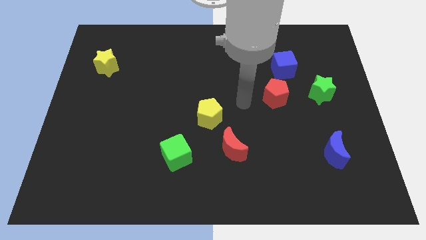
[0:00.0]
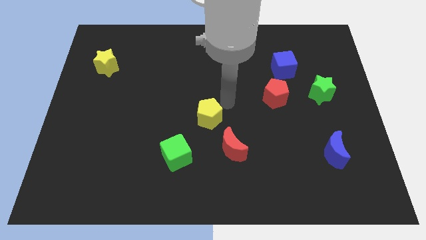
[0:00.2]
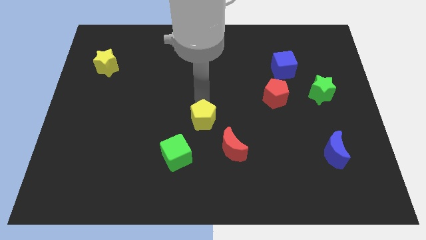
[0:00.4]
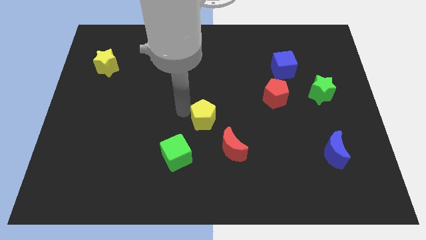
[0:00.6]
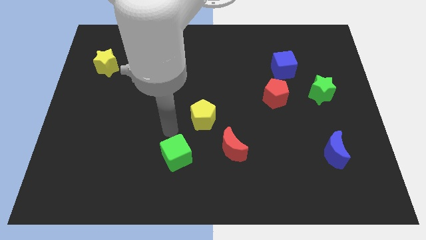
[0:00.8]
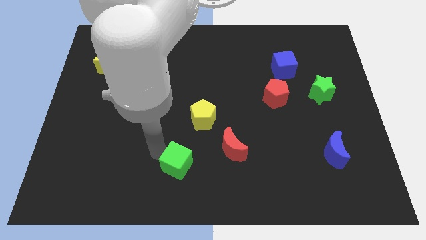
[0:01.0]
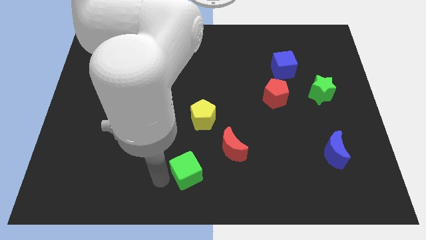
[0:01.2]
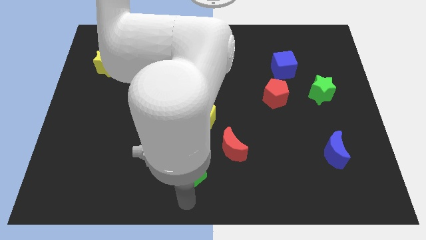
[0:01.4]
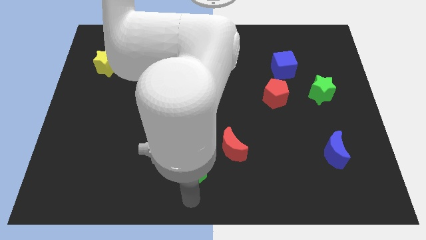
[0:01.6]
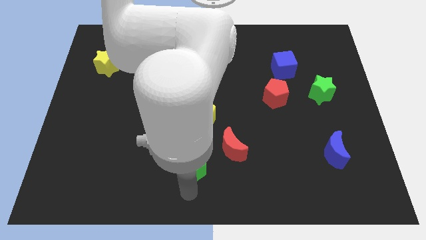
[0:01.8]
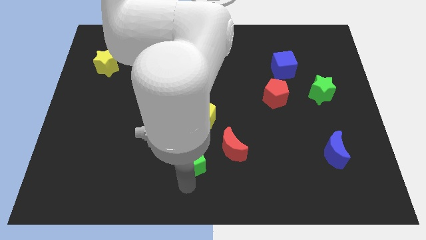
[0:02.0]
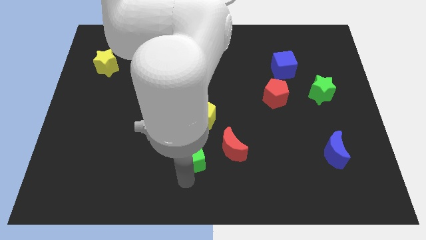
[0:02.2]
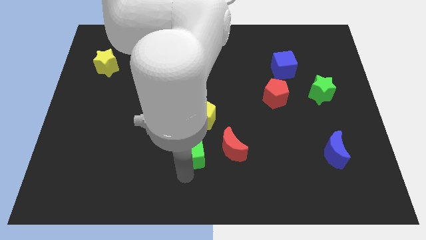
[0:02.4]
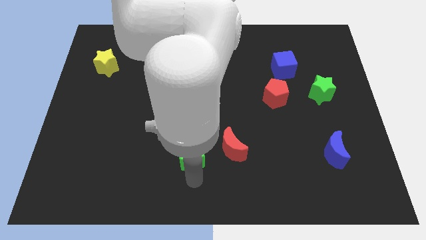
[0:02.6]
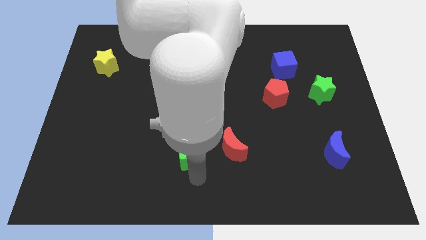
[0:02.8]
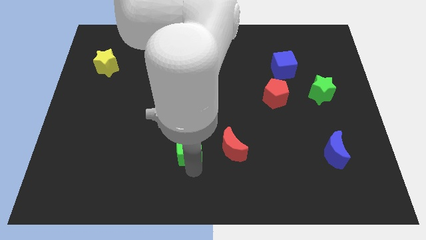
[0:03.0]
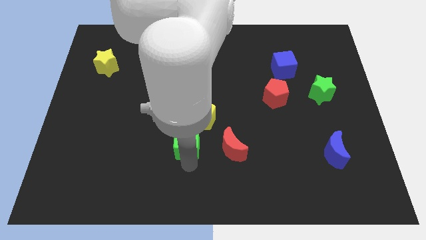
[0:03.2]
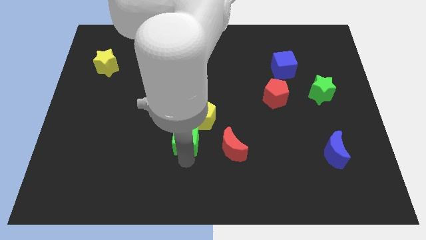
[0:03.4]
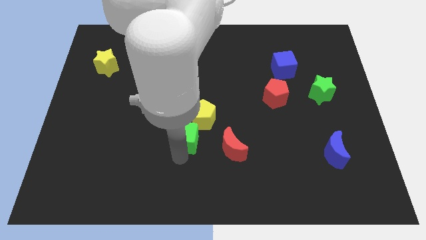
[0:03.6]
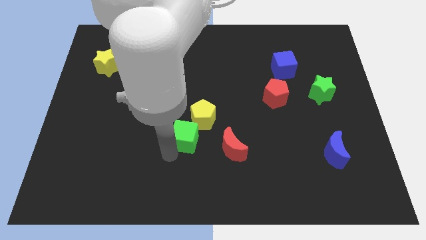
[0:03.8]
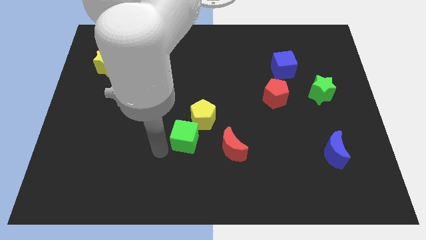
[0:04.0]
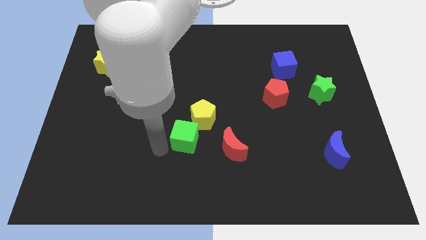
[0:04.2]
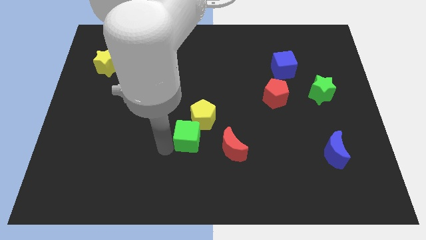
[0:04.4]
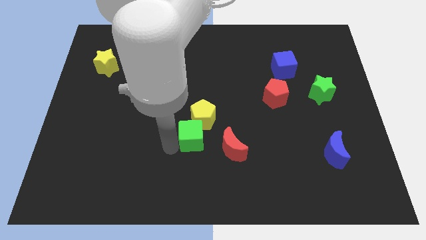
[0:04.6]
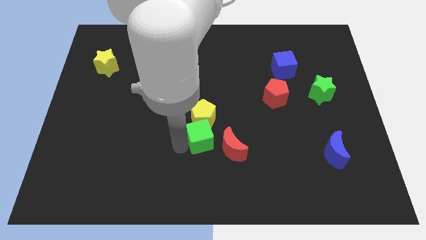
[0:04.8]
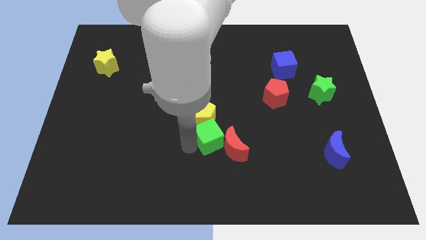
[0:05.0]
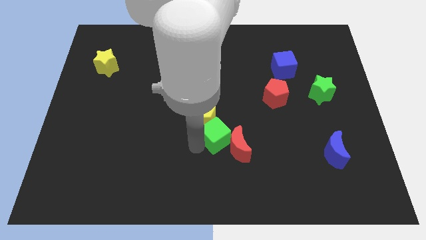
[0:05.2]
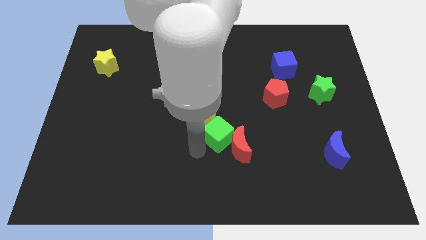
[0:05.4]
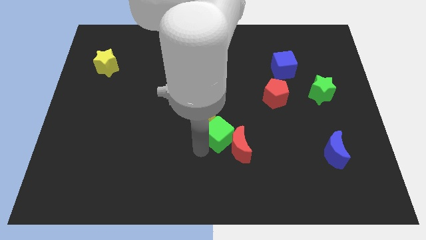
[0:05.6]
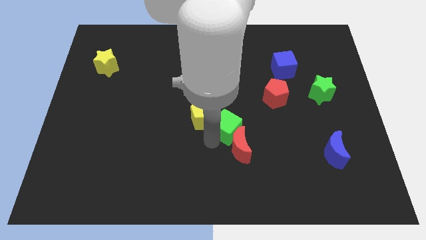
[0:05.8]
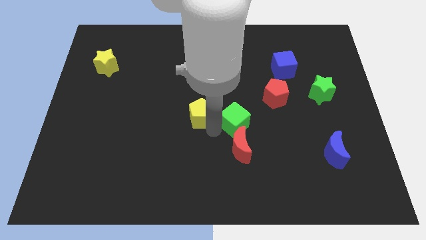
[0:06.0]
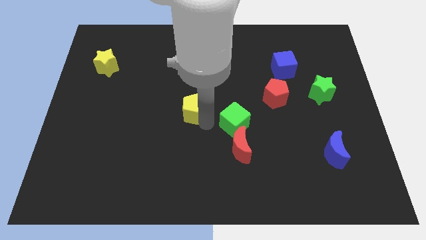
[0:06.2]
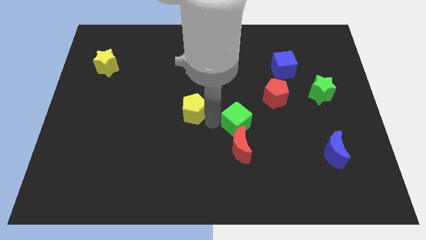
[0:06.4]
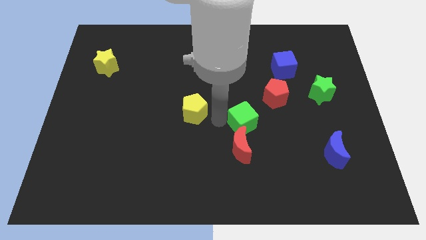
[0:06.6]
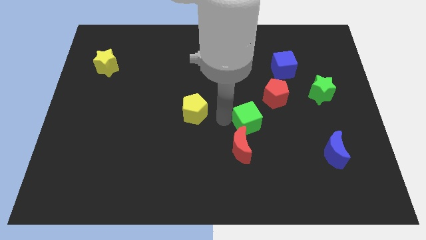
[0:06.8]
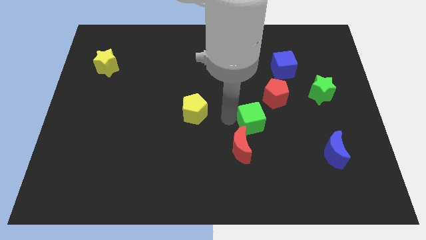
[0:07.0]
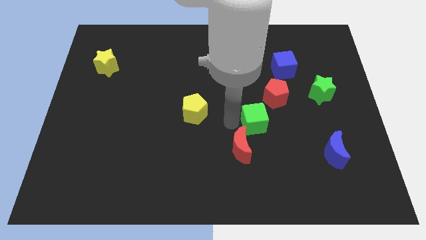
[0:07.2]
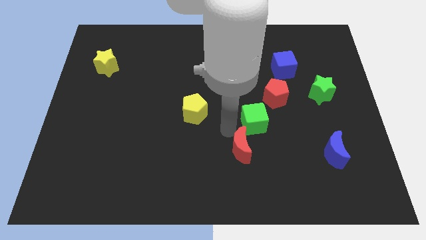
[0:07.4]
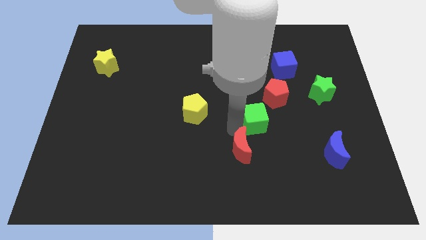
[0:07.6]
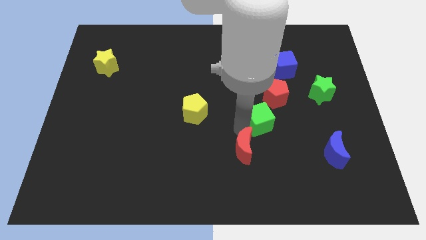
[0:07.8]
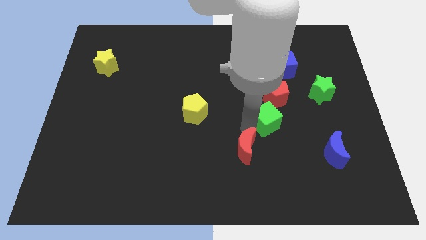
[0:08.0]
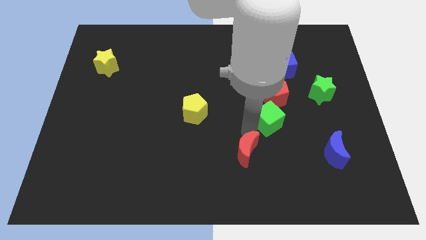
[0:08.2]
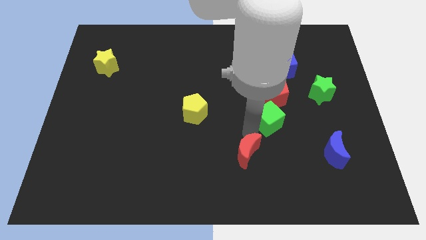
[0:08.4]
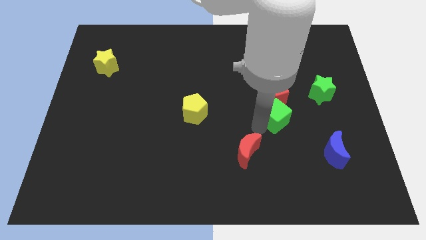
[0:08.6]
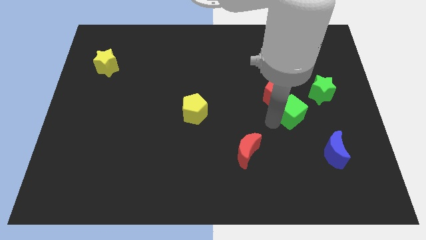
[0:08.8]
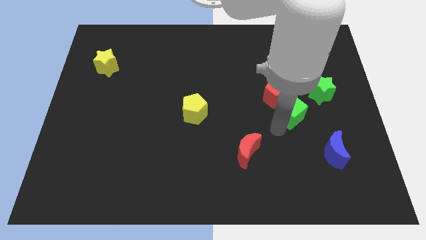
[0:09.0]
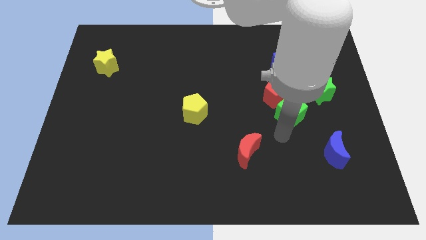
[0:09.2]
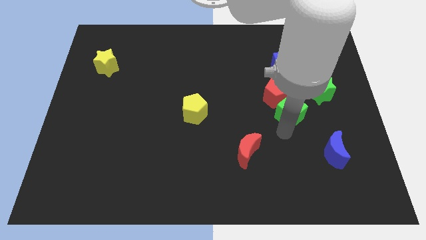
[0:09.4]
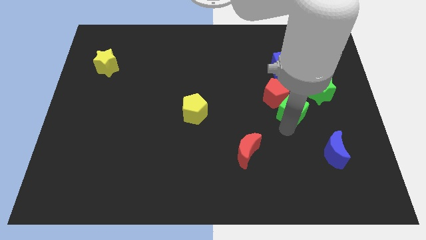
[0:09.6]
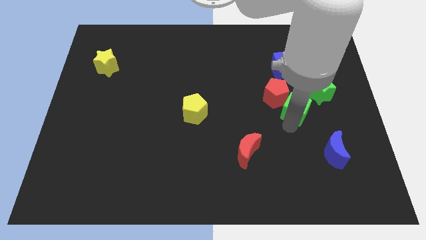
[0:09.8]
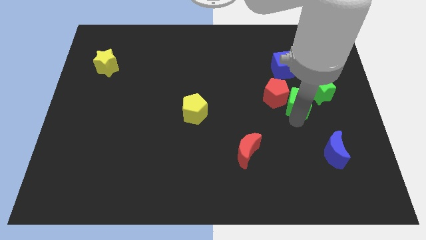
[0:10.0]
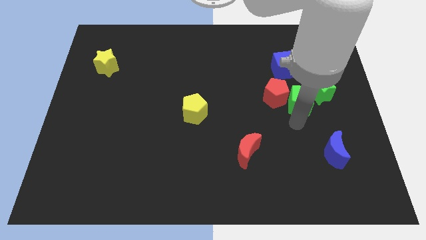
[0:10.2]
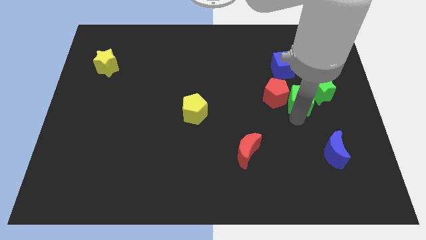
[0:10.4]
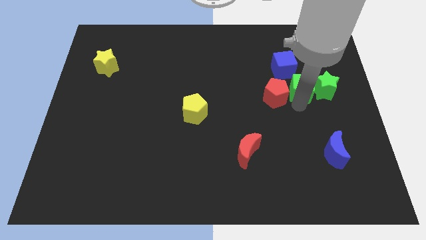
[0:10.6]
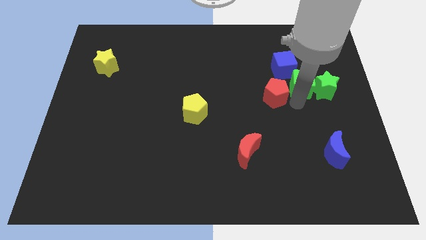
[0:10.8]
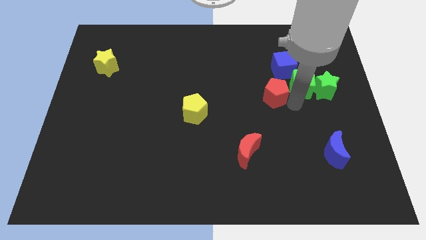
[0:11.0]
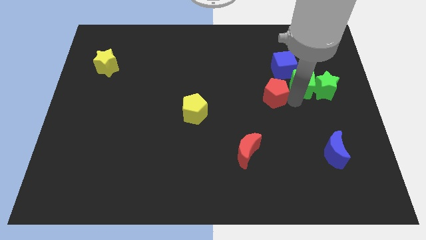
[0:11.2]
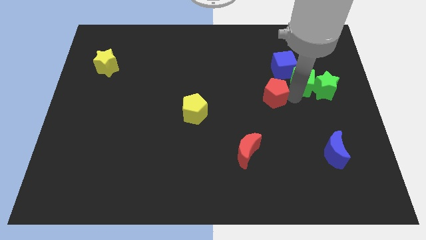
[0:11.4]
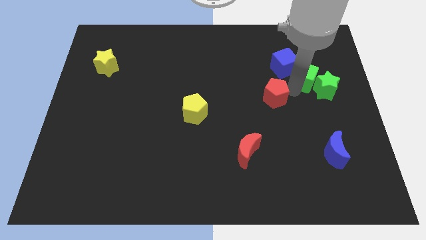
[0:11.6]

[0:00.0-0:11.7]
slide the green cube to the top of the green star

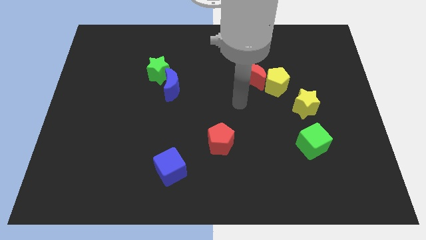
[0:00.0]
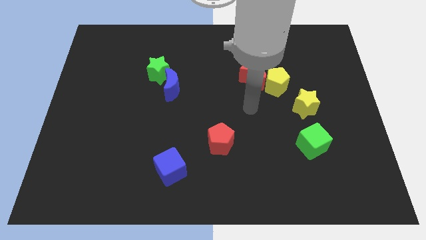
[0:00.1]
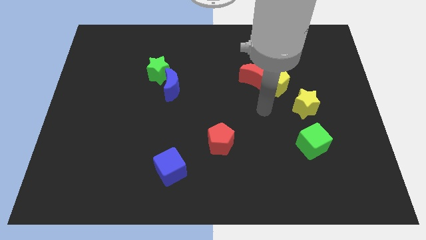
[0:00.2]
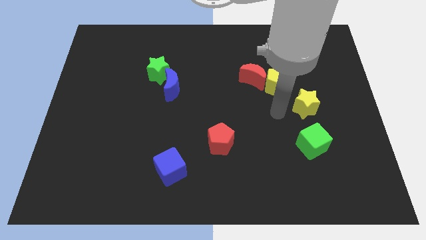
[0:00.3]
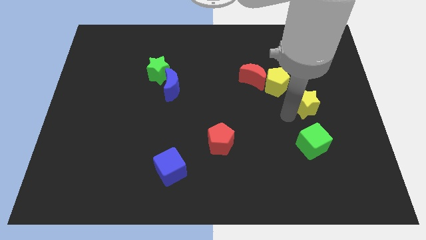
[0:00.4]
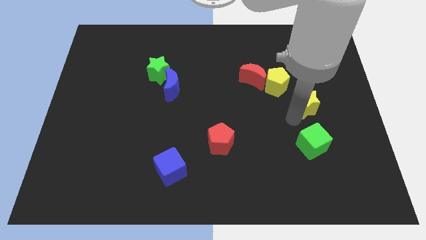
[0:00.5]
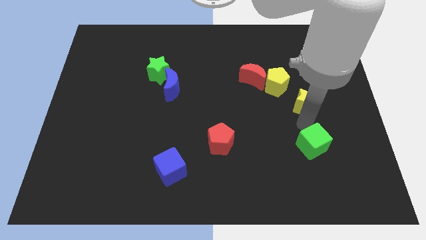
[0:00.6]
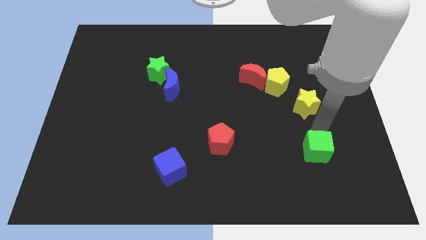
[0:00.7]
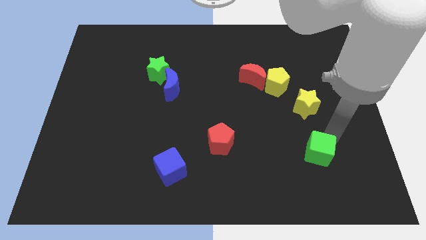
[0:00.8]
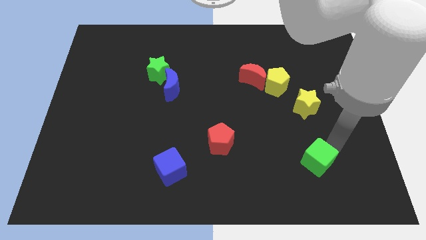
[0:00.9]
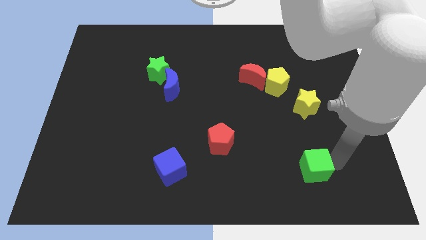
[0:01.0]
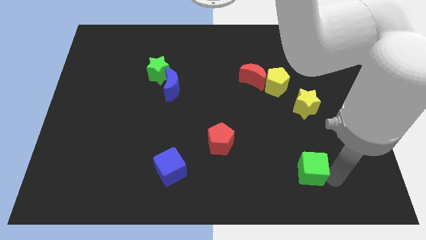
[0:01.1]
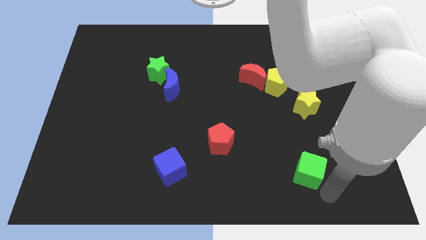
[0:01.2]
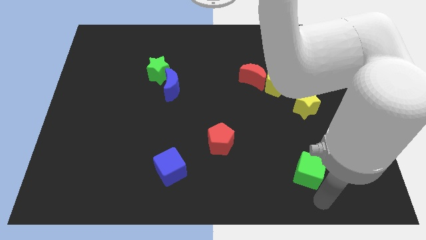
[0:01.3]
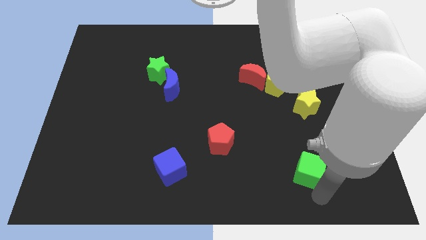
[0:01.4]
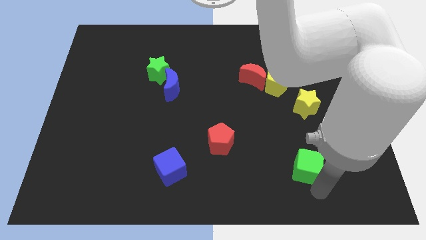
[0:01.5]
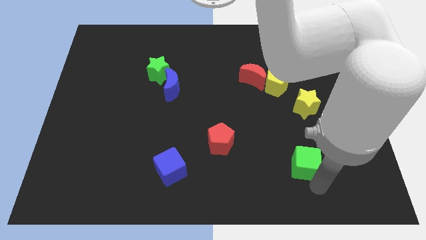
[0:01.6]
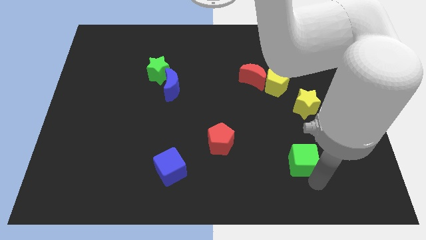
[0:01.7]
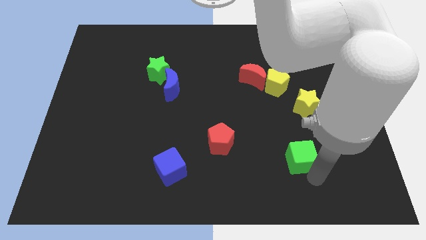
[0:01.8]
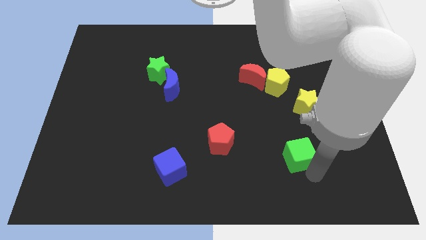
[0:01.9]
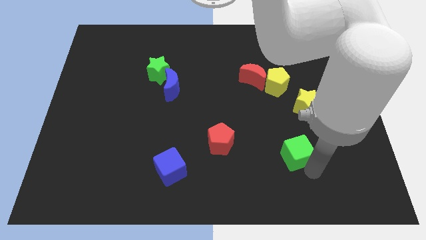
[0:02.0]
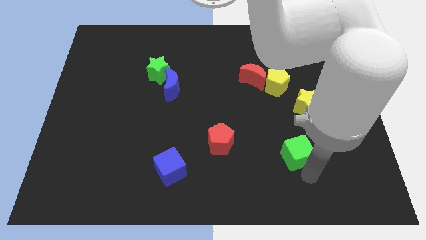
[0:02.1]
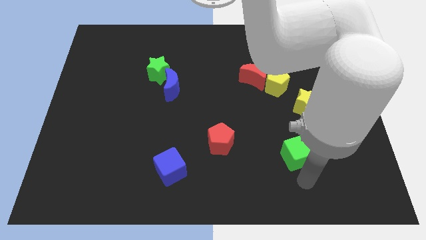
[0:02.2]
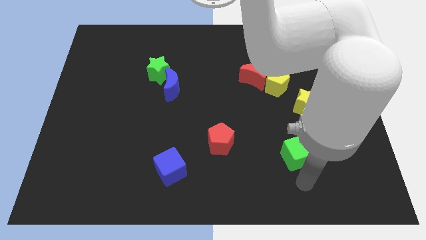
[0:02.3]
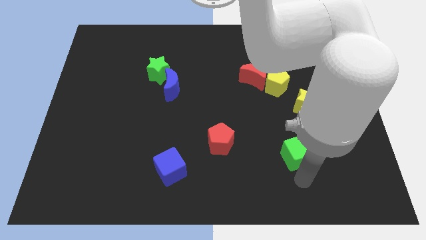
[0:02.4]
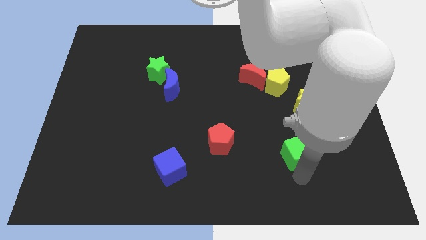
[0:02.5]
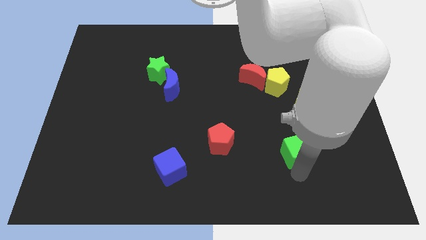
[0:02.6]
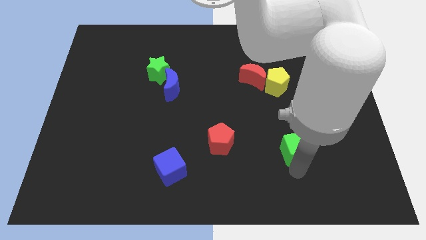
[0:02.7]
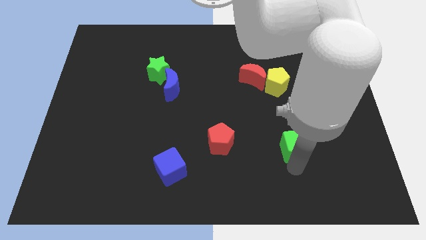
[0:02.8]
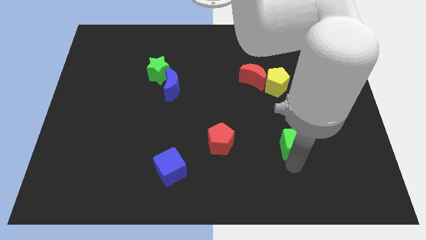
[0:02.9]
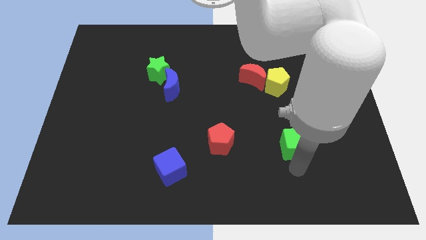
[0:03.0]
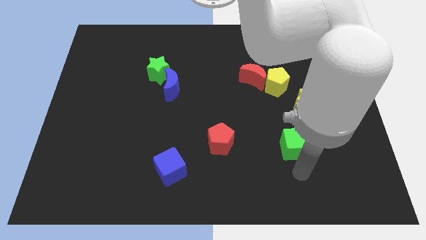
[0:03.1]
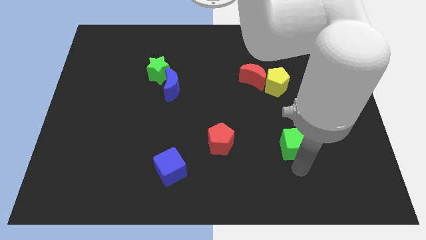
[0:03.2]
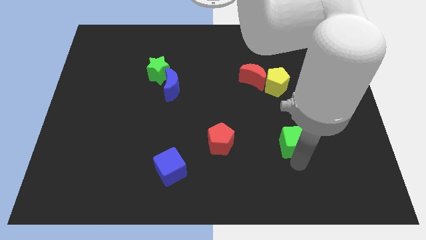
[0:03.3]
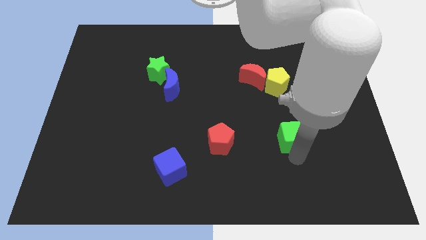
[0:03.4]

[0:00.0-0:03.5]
move the green cube below the yellow pentagon
